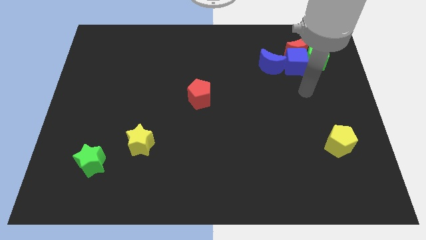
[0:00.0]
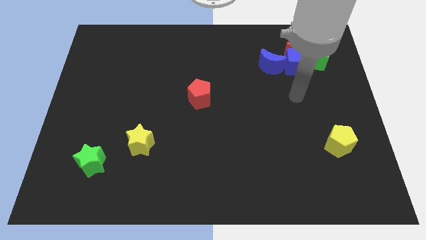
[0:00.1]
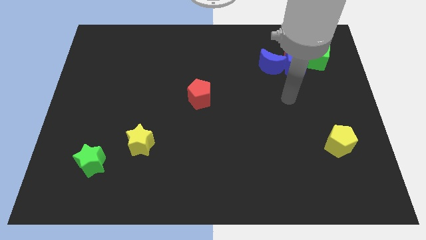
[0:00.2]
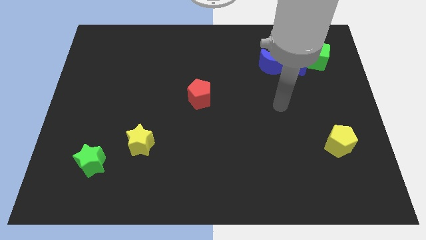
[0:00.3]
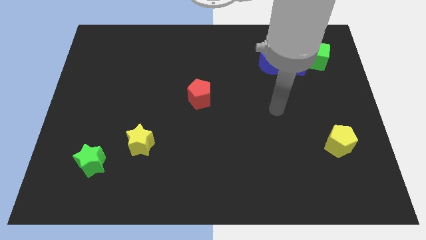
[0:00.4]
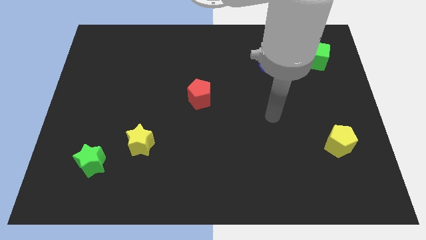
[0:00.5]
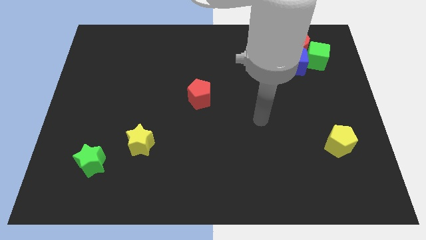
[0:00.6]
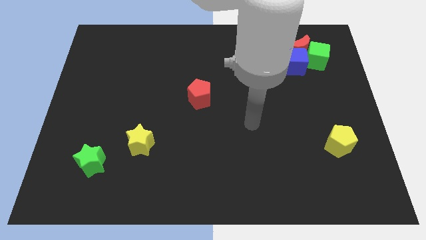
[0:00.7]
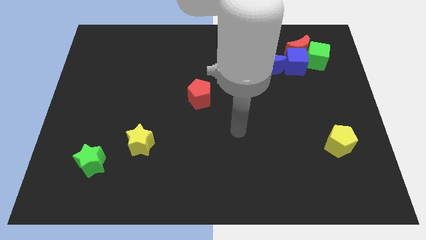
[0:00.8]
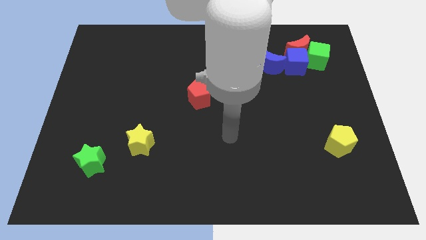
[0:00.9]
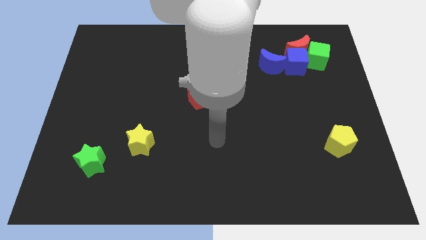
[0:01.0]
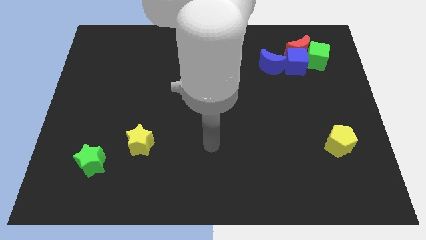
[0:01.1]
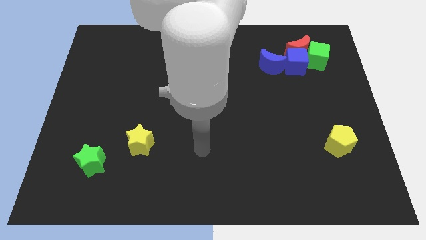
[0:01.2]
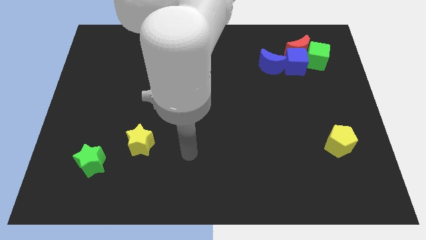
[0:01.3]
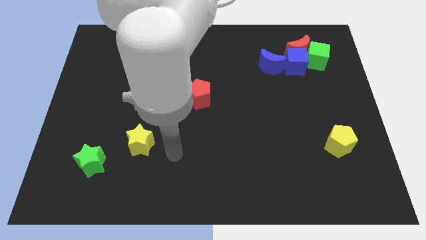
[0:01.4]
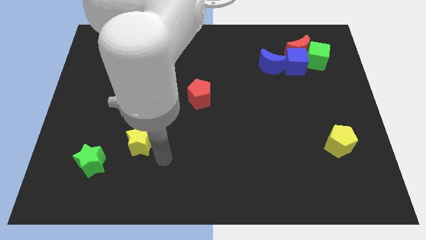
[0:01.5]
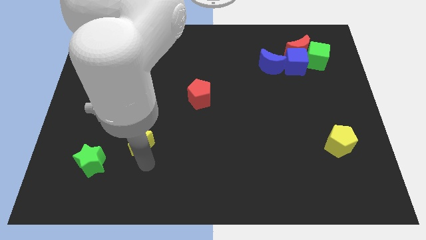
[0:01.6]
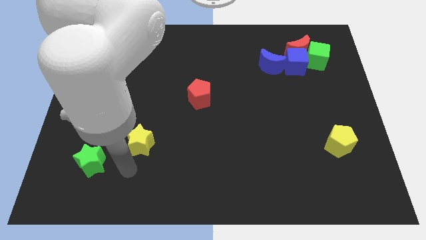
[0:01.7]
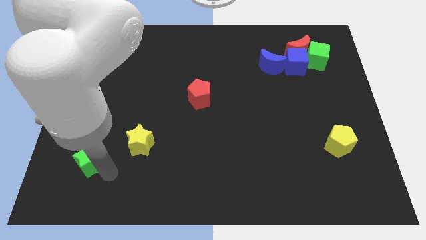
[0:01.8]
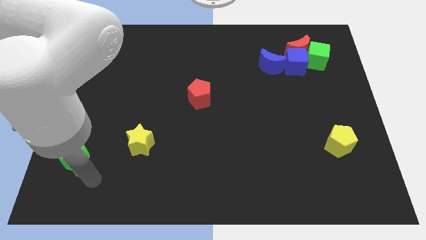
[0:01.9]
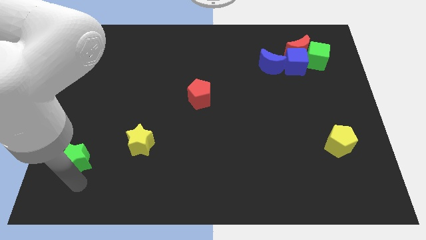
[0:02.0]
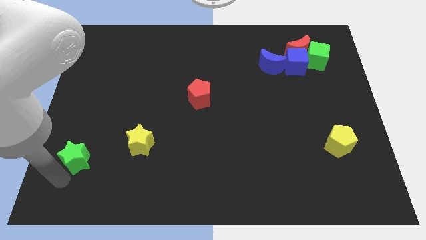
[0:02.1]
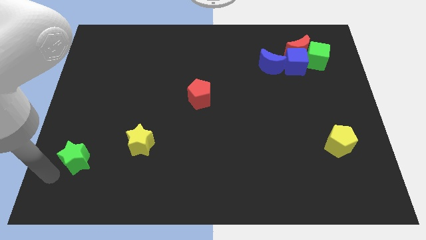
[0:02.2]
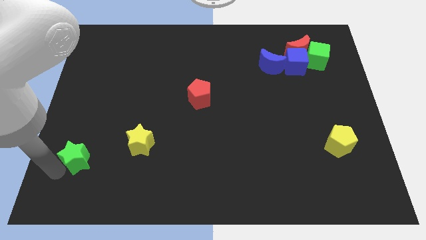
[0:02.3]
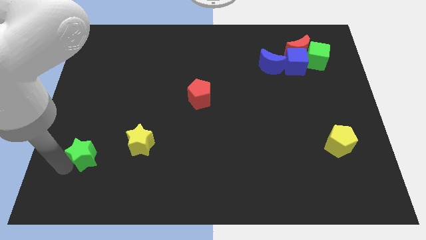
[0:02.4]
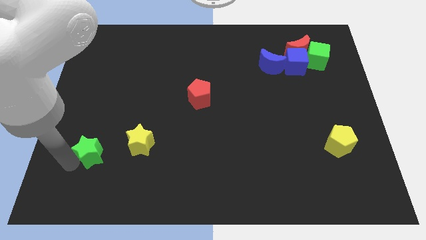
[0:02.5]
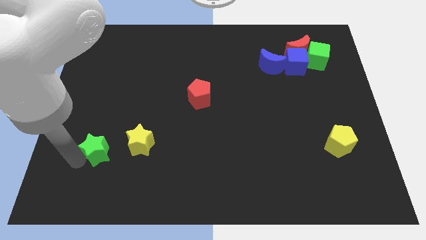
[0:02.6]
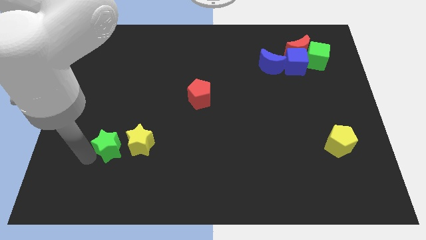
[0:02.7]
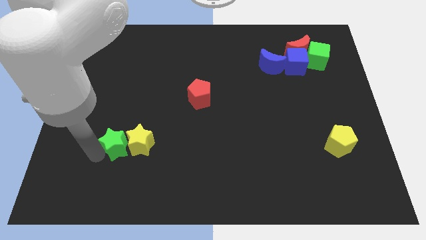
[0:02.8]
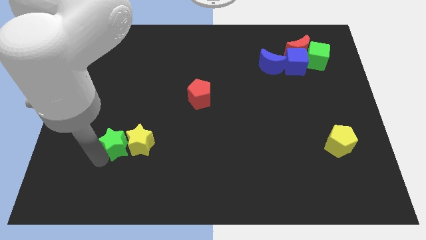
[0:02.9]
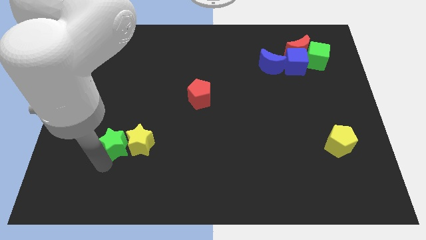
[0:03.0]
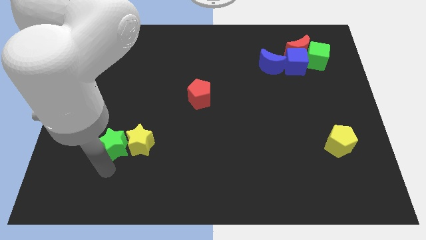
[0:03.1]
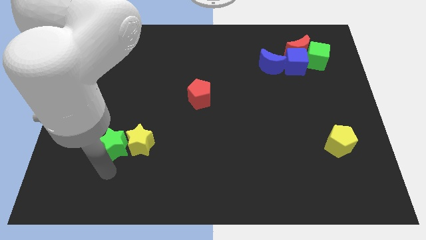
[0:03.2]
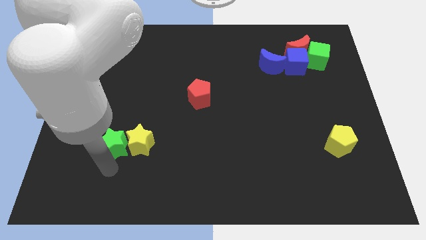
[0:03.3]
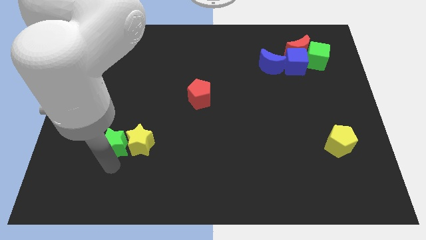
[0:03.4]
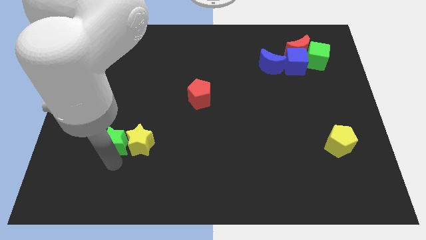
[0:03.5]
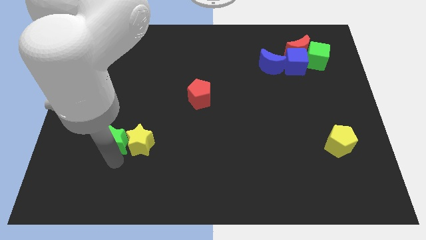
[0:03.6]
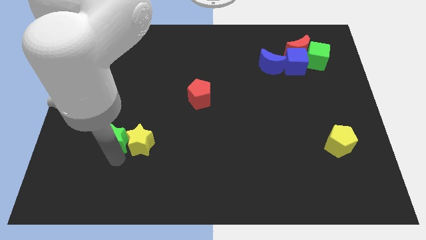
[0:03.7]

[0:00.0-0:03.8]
slightly move the green star diagonally up and to the right

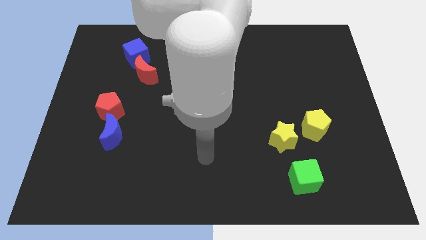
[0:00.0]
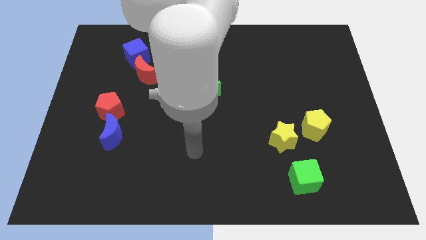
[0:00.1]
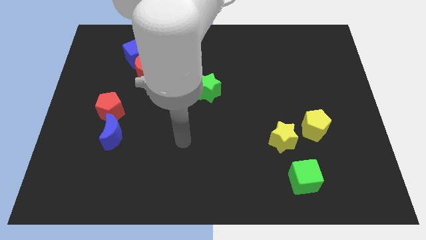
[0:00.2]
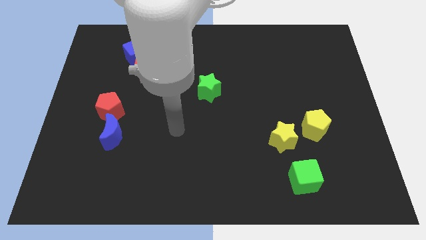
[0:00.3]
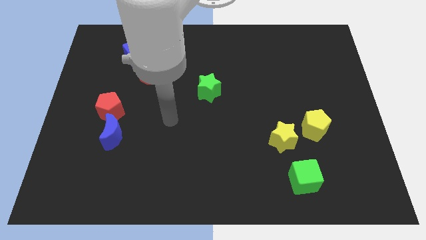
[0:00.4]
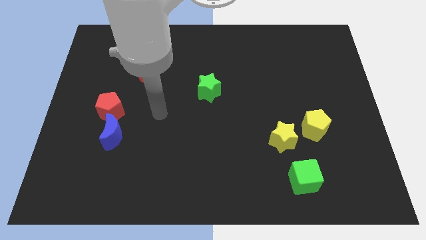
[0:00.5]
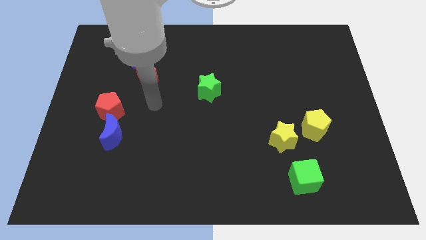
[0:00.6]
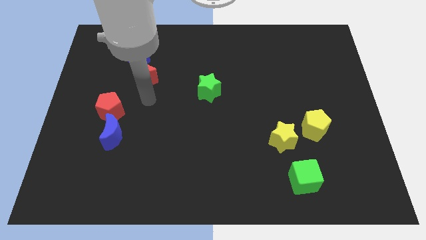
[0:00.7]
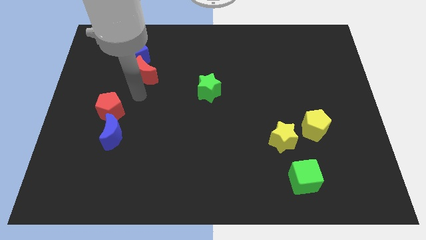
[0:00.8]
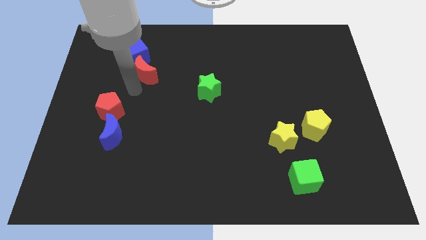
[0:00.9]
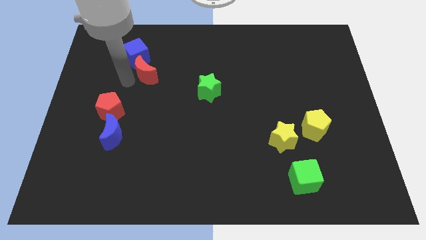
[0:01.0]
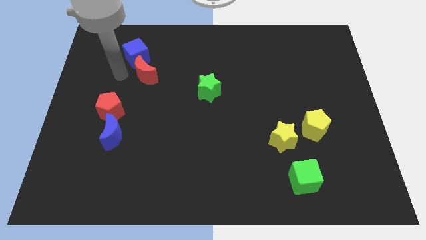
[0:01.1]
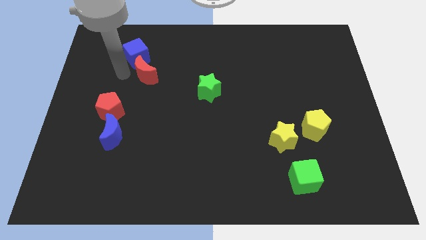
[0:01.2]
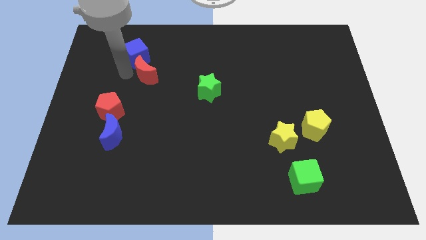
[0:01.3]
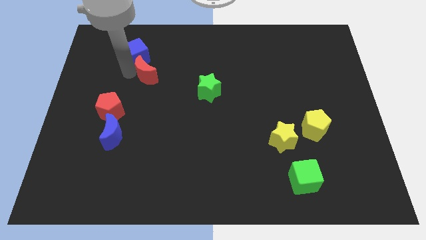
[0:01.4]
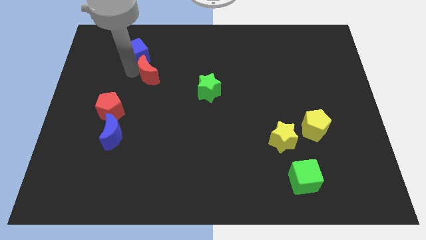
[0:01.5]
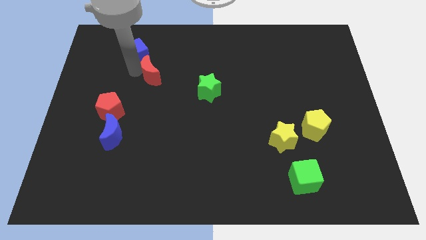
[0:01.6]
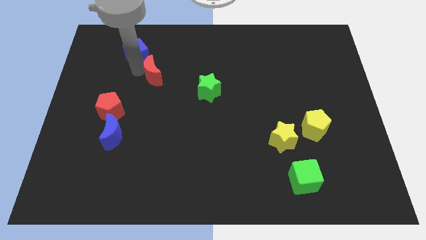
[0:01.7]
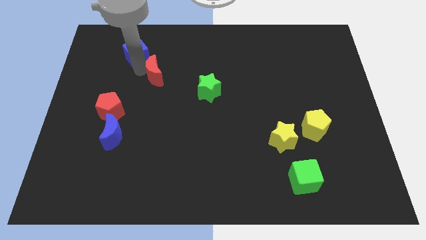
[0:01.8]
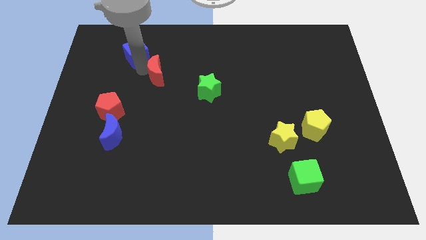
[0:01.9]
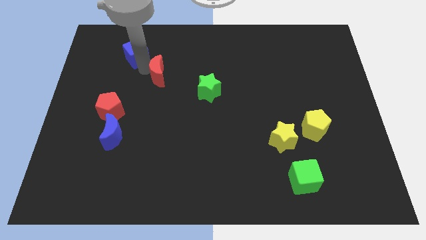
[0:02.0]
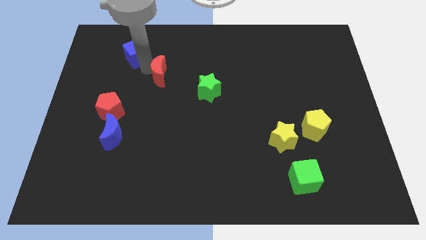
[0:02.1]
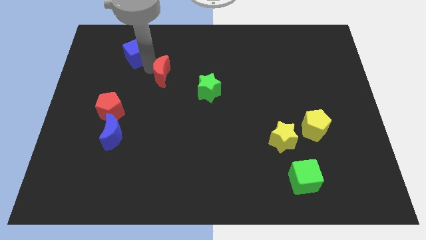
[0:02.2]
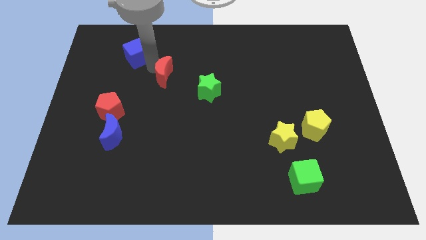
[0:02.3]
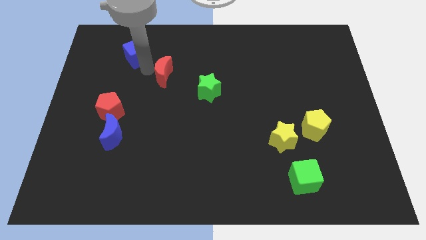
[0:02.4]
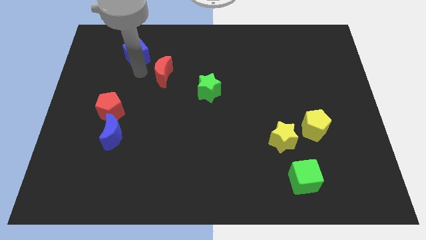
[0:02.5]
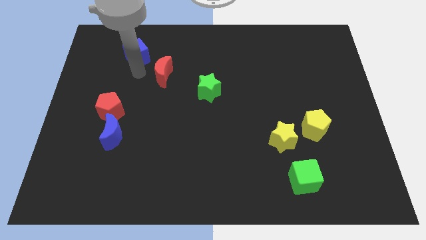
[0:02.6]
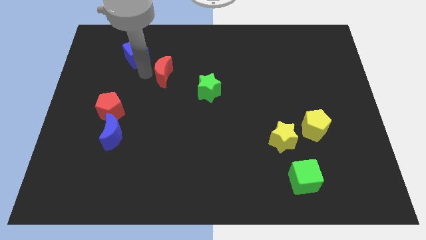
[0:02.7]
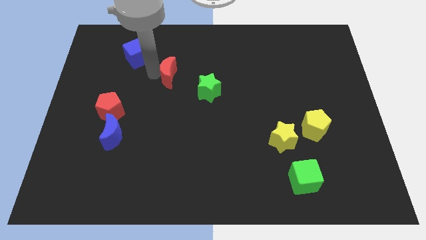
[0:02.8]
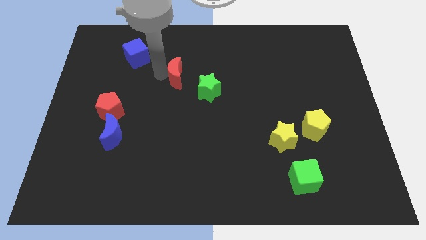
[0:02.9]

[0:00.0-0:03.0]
move the red moon right a little bit

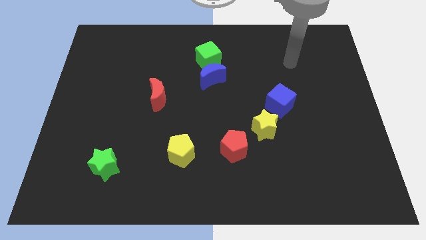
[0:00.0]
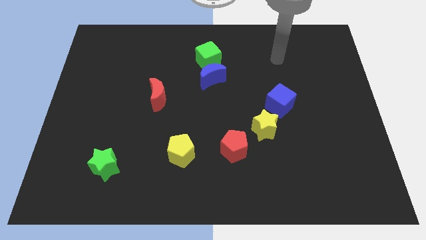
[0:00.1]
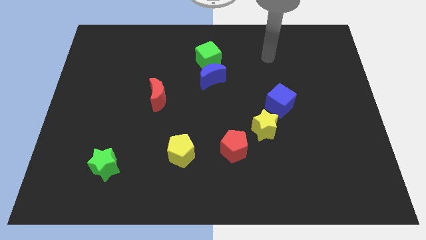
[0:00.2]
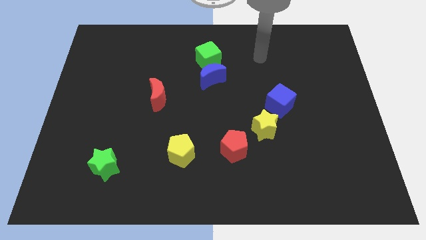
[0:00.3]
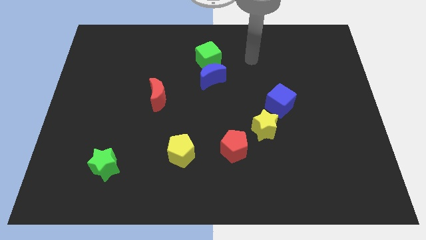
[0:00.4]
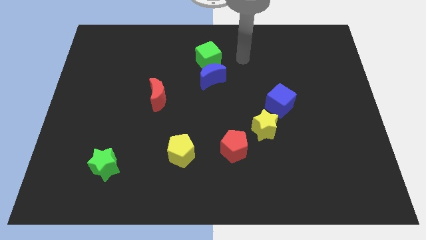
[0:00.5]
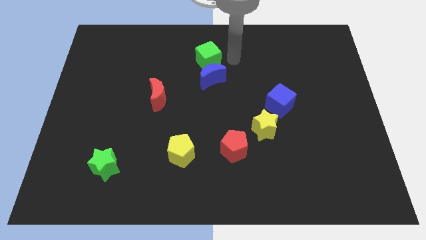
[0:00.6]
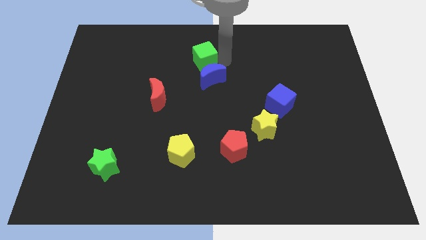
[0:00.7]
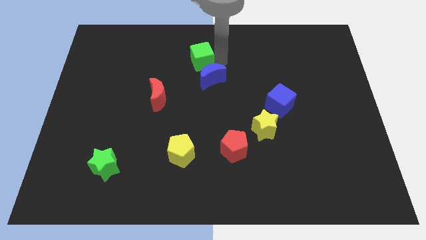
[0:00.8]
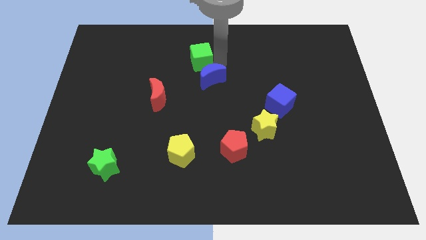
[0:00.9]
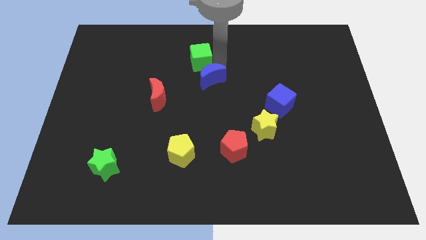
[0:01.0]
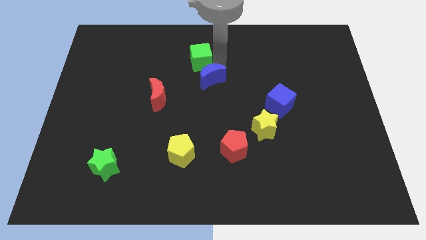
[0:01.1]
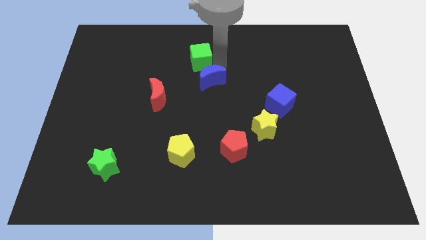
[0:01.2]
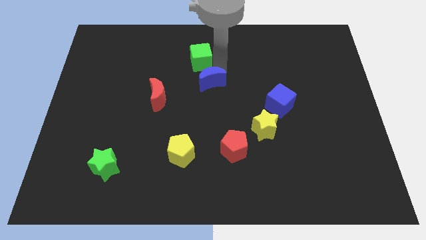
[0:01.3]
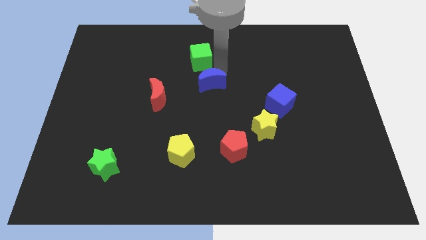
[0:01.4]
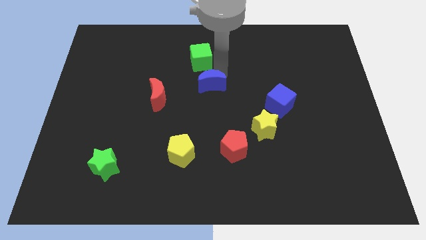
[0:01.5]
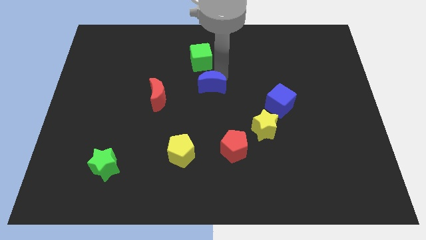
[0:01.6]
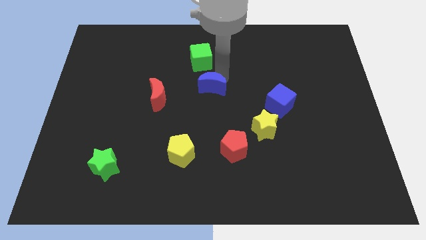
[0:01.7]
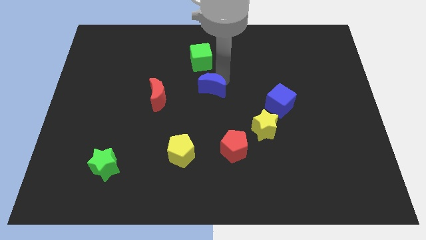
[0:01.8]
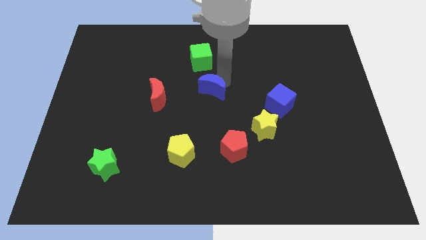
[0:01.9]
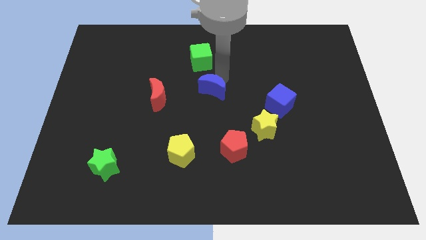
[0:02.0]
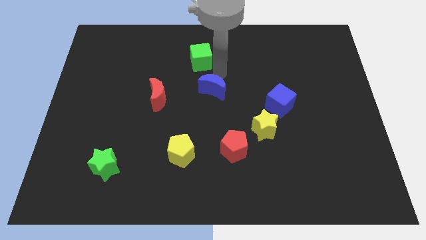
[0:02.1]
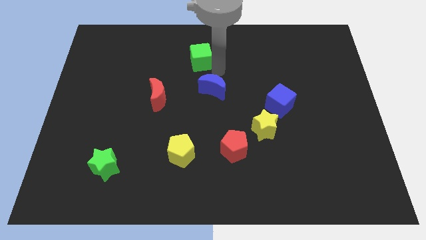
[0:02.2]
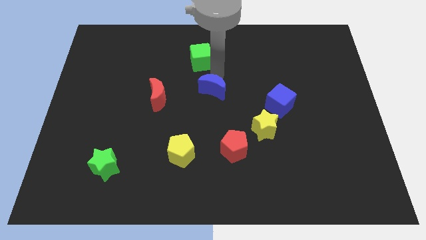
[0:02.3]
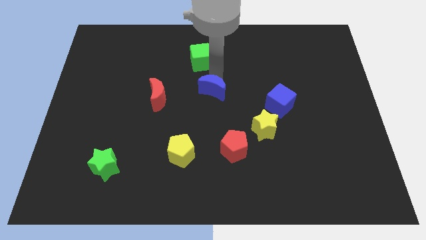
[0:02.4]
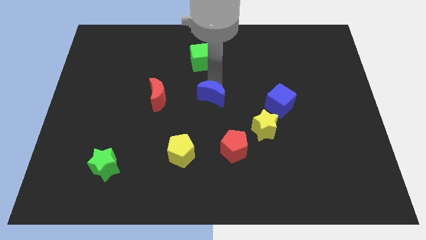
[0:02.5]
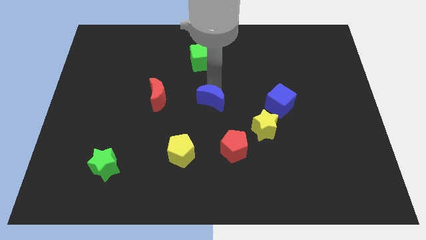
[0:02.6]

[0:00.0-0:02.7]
slide the blue moon downwards a bit
